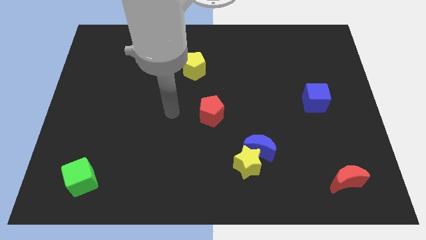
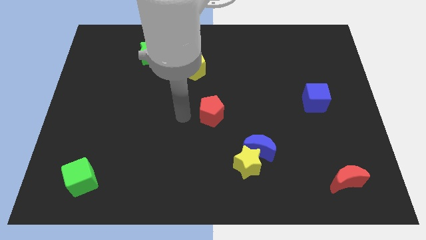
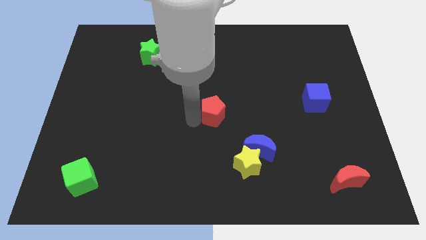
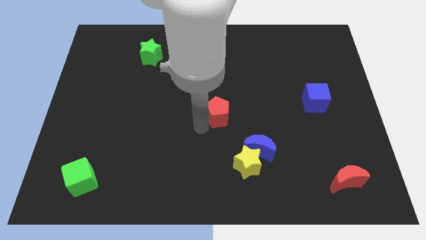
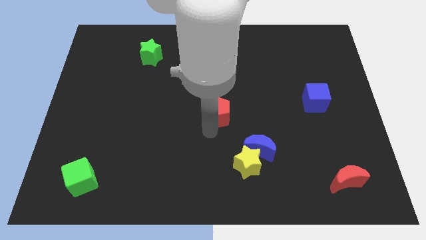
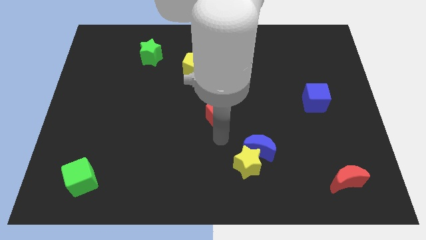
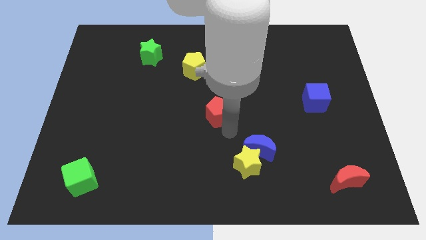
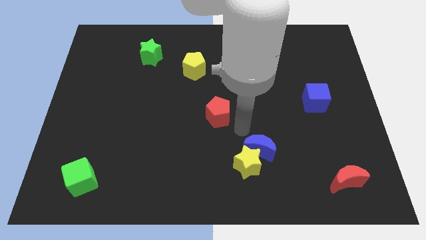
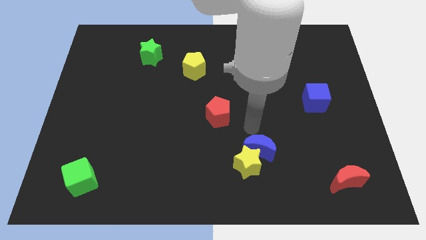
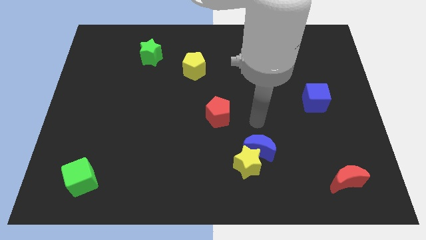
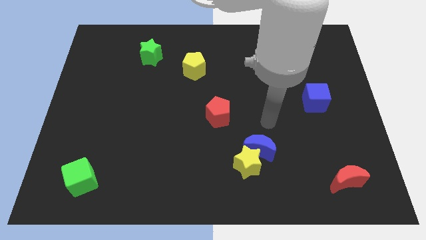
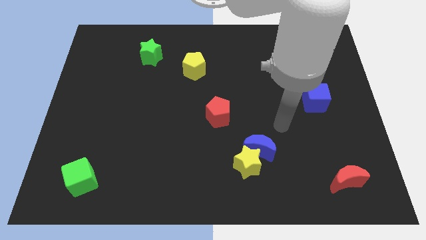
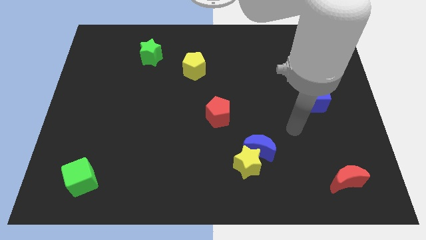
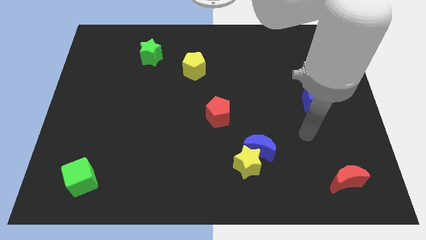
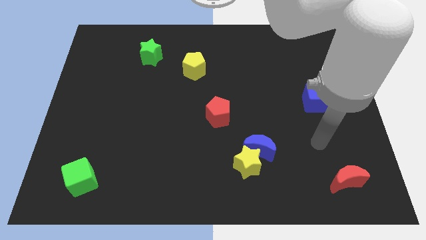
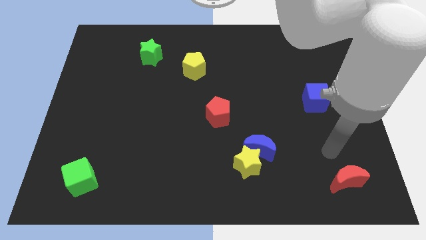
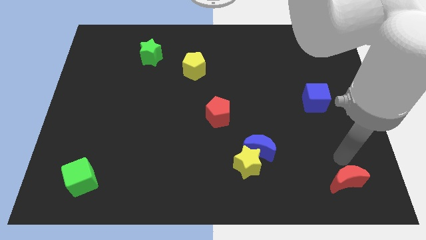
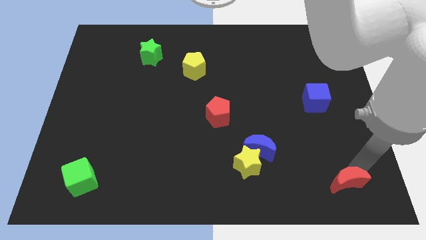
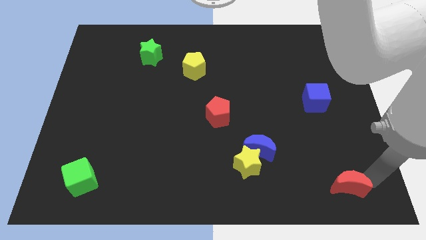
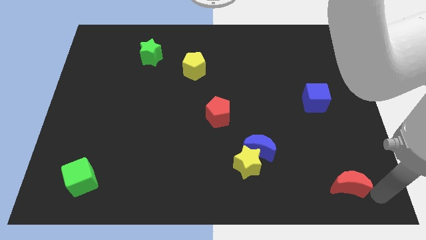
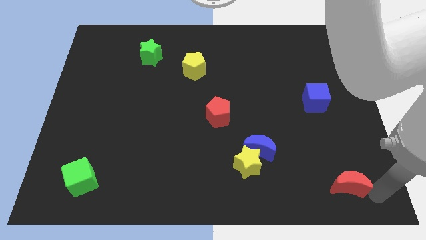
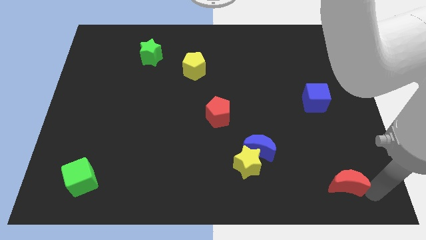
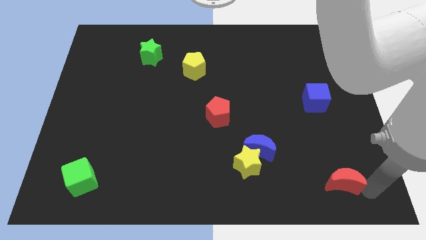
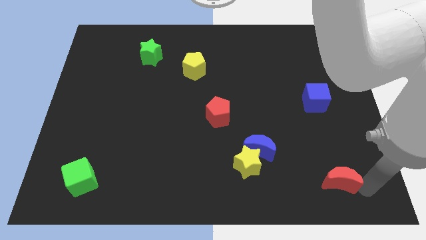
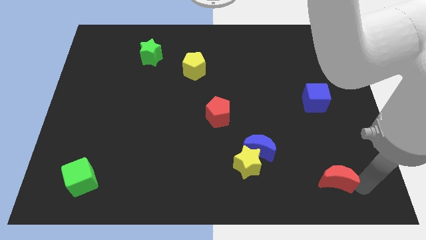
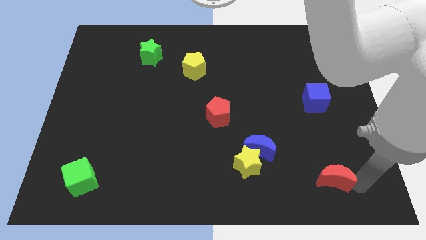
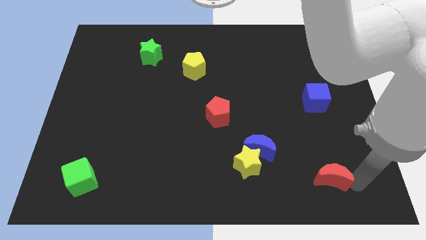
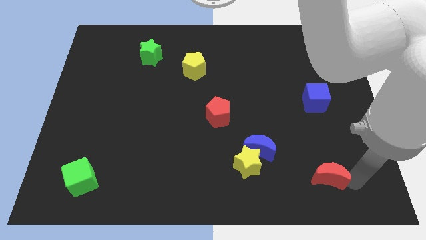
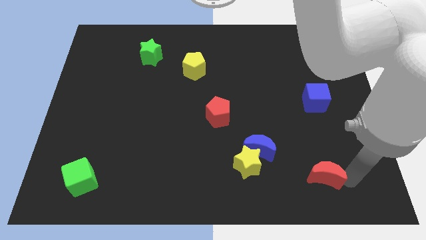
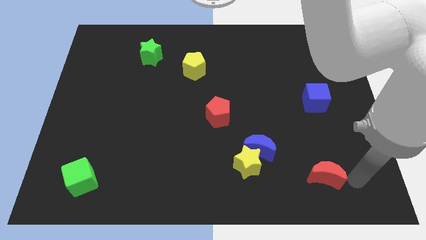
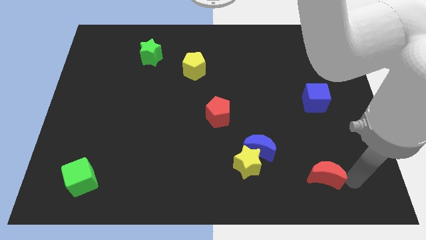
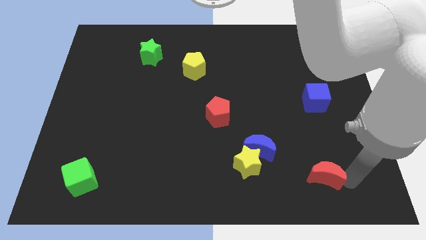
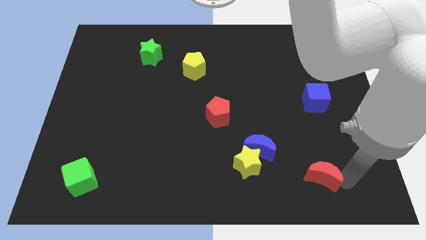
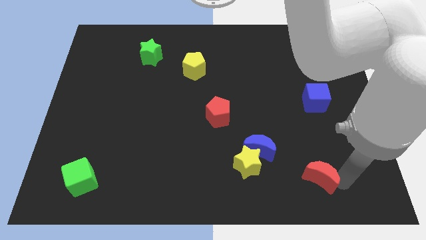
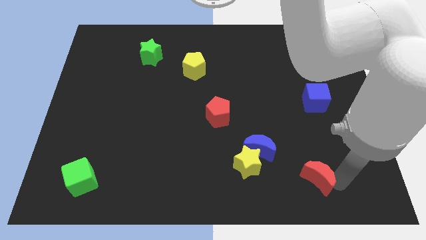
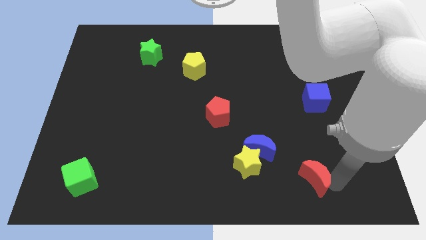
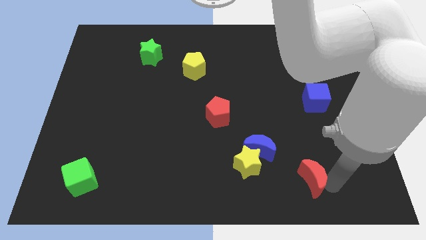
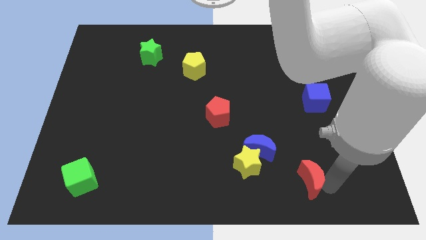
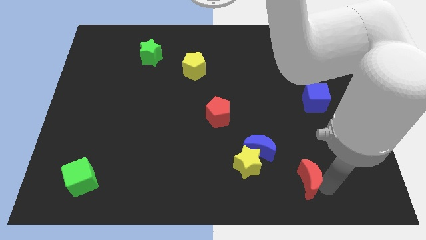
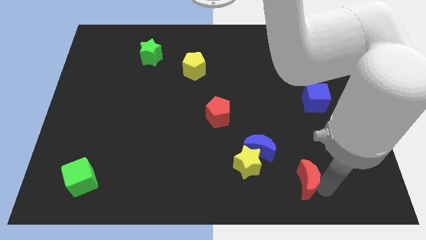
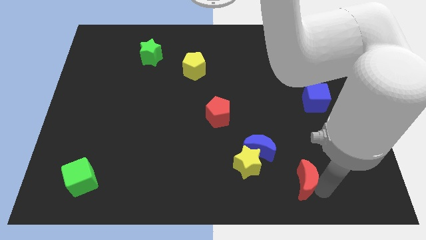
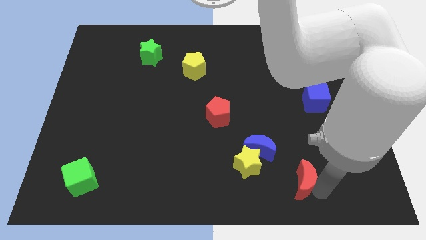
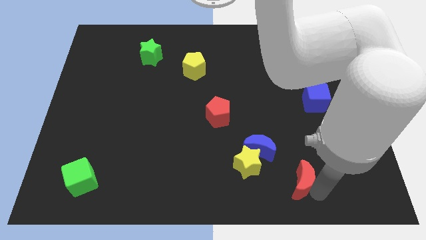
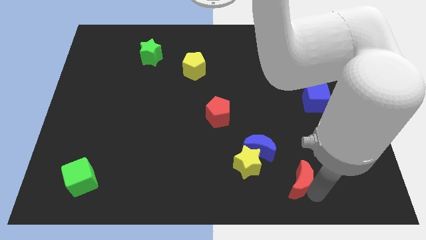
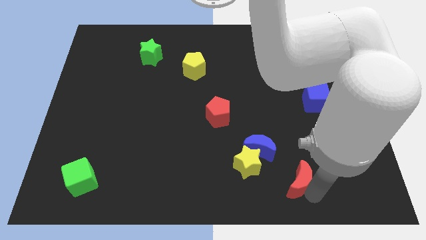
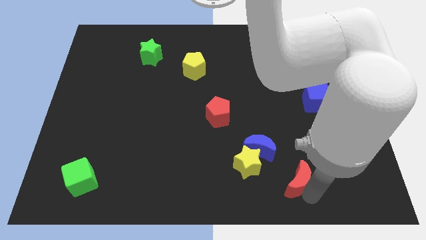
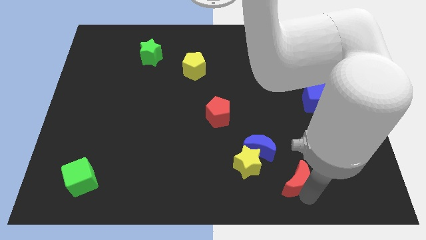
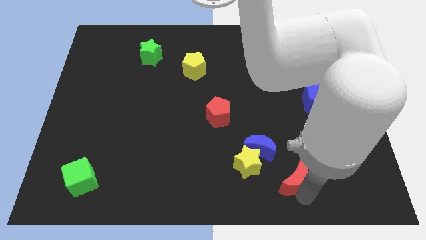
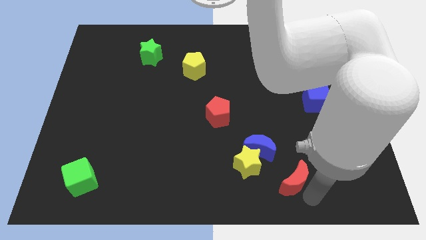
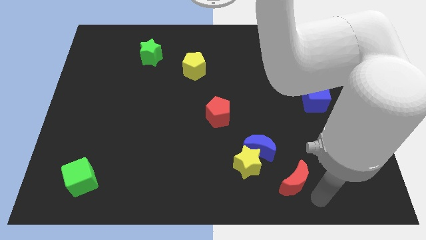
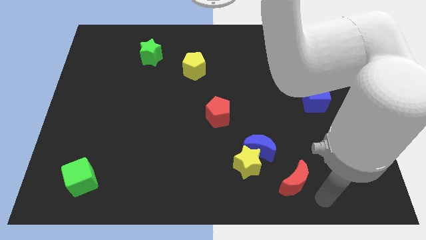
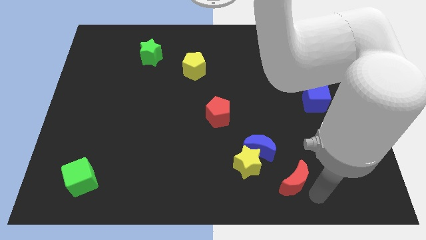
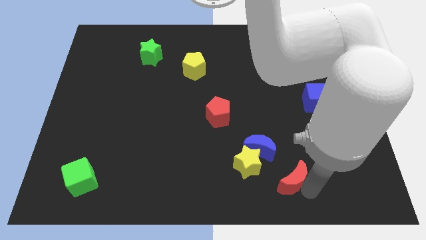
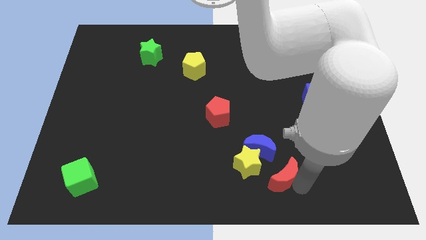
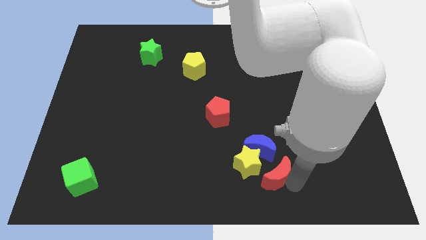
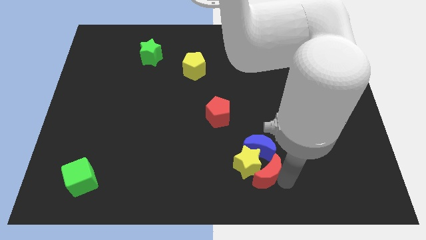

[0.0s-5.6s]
move the red moon close to the yellow star
